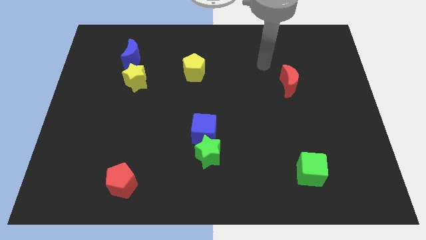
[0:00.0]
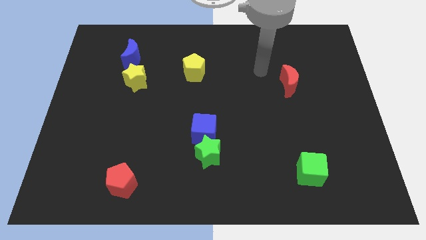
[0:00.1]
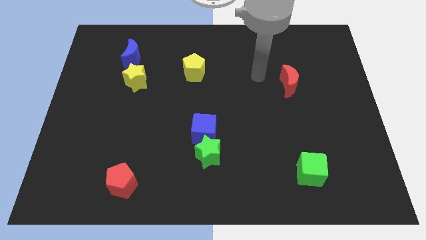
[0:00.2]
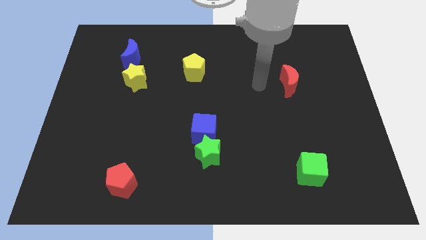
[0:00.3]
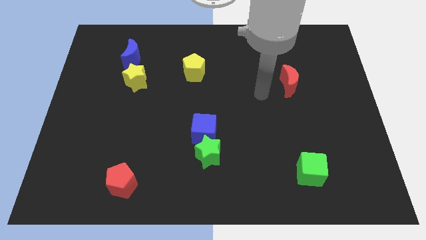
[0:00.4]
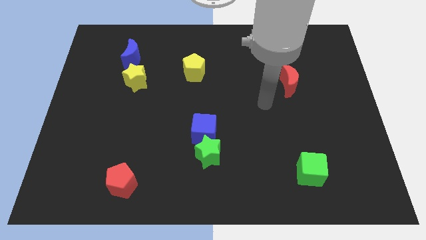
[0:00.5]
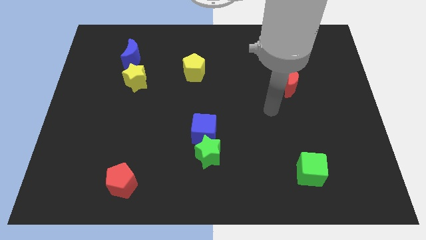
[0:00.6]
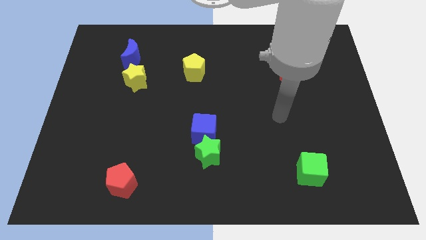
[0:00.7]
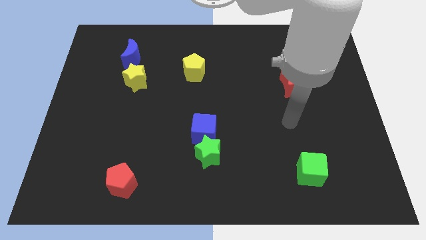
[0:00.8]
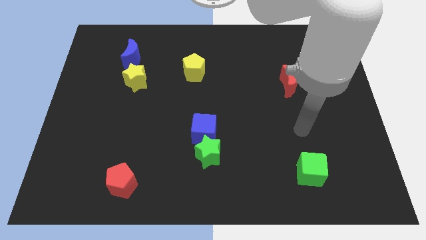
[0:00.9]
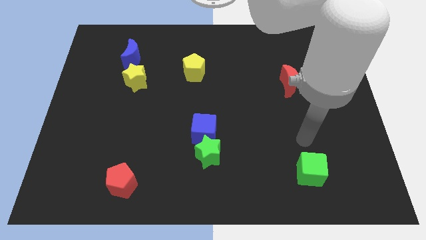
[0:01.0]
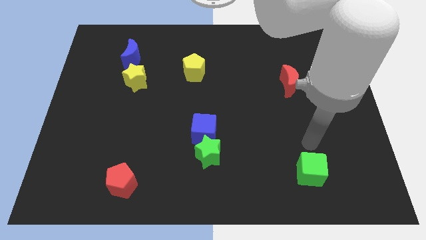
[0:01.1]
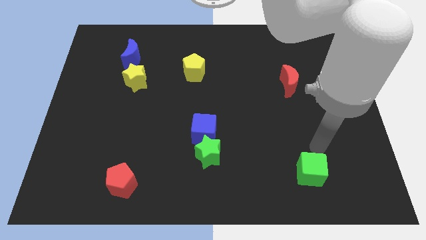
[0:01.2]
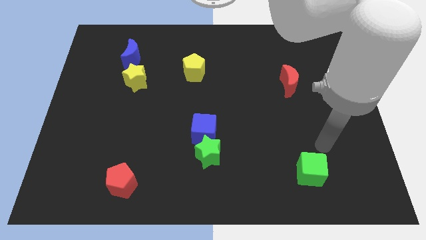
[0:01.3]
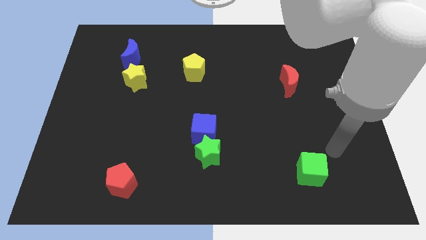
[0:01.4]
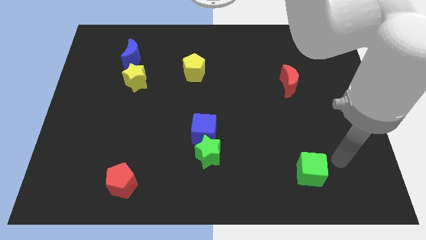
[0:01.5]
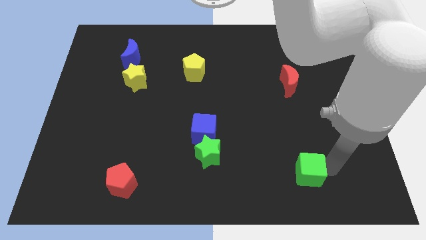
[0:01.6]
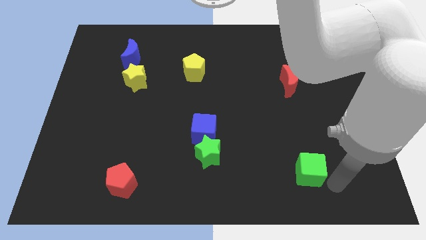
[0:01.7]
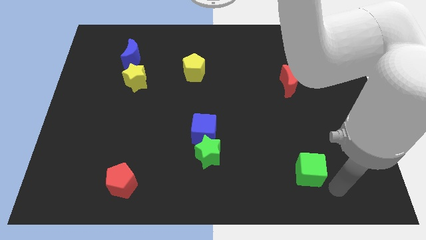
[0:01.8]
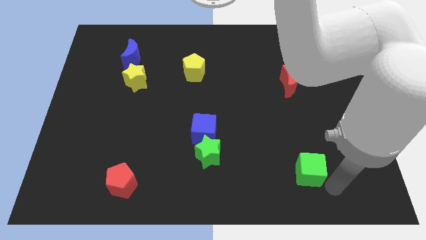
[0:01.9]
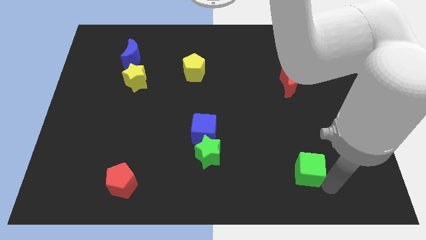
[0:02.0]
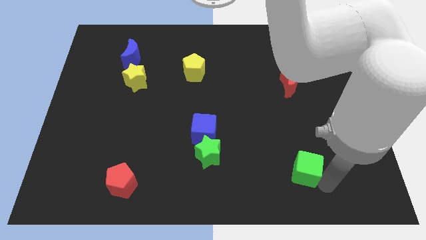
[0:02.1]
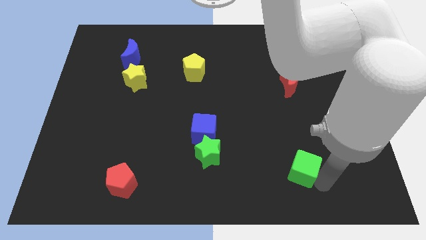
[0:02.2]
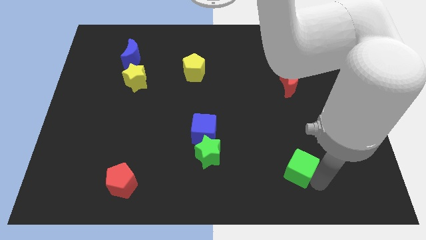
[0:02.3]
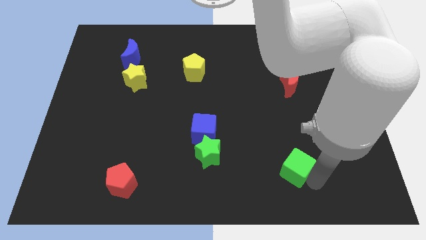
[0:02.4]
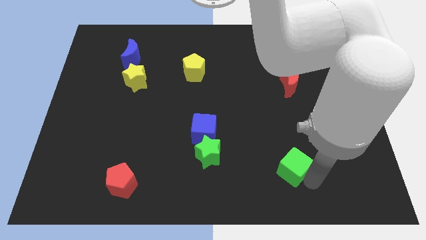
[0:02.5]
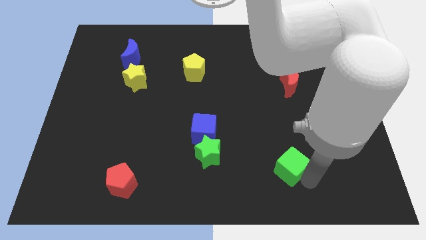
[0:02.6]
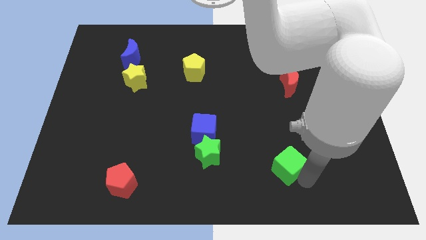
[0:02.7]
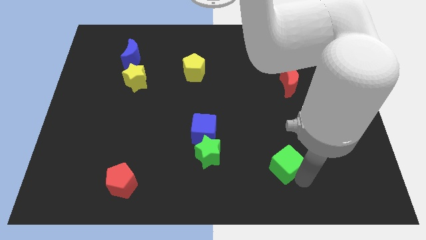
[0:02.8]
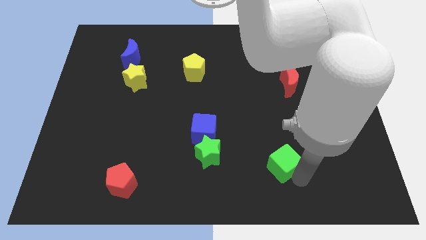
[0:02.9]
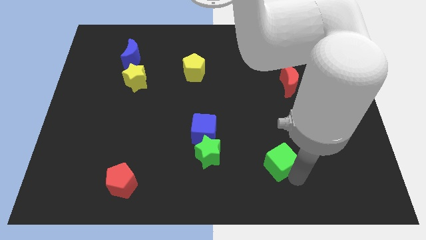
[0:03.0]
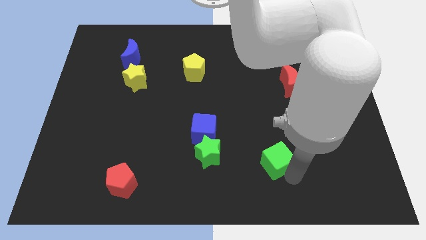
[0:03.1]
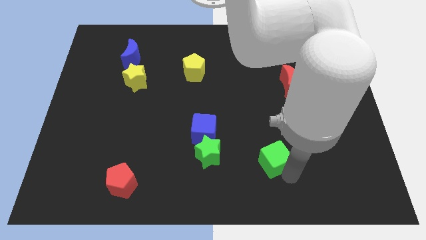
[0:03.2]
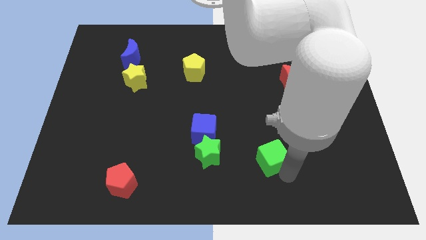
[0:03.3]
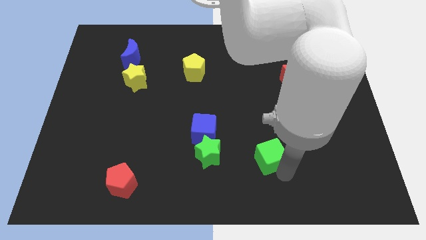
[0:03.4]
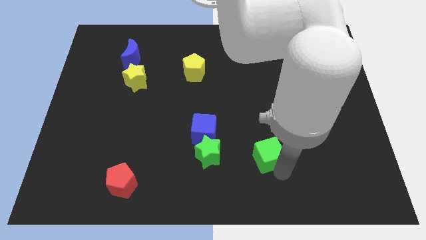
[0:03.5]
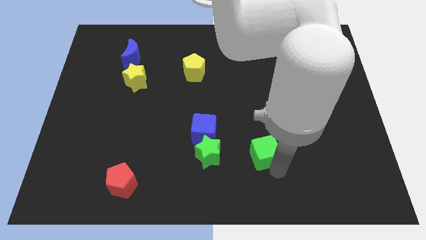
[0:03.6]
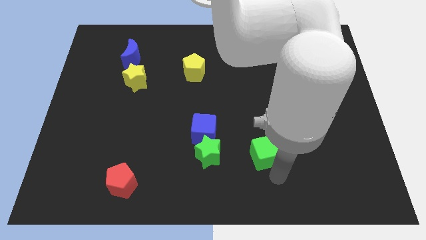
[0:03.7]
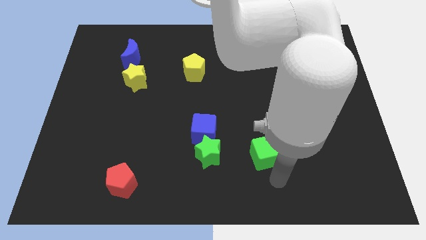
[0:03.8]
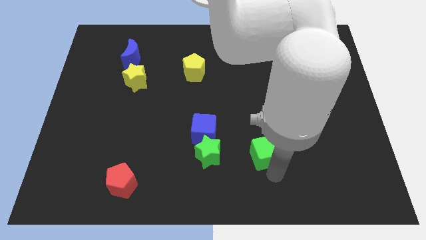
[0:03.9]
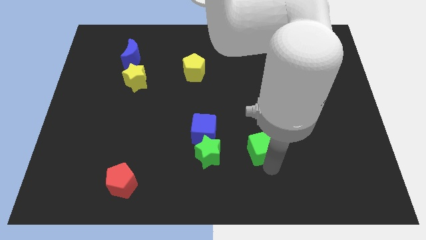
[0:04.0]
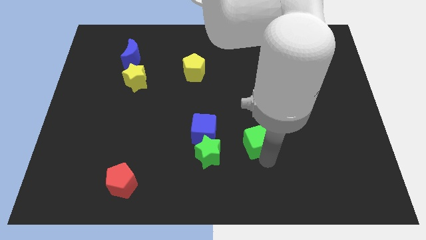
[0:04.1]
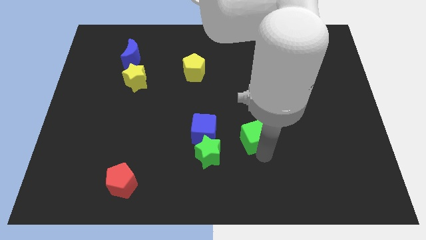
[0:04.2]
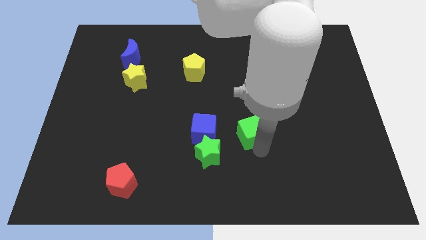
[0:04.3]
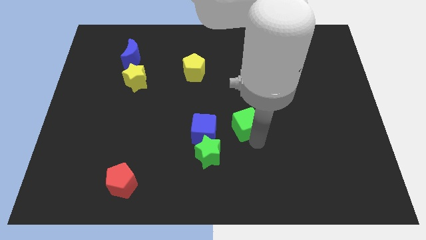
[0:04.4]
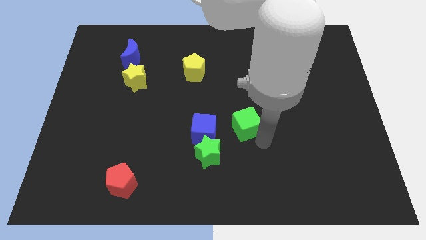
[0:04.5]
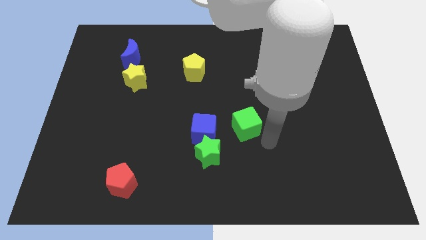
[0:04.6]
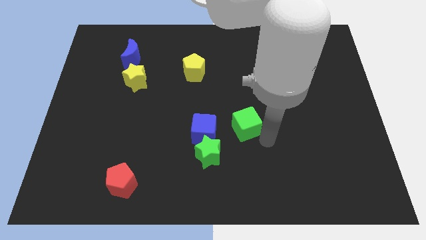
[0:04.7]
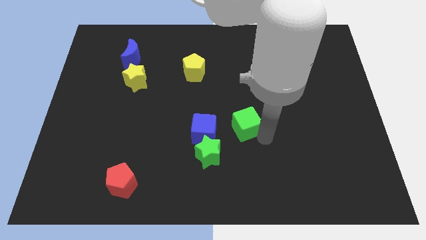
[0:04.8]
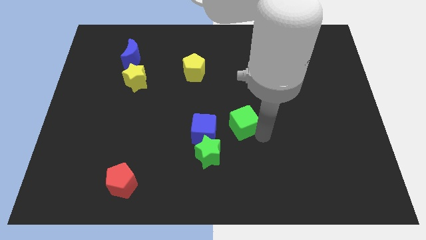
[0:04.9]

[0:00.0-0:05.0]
slide the green cube diagonally up and to the right of the blue cube

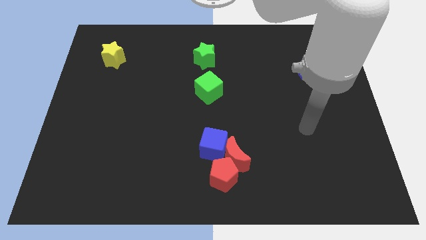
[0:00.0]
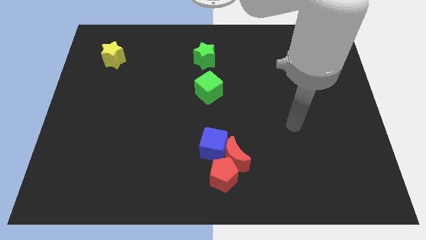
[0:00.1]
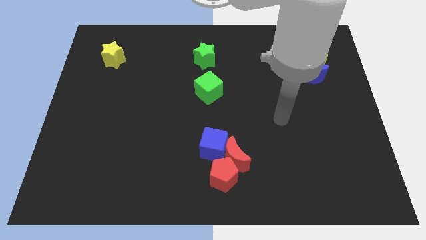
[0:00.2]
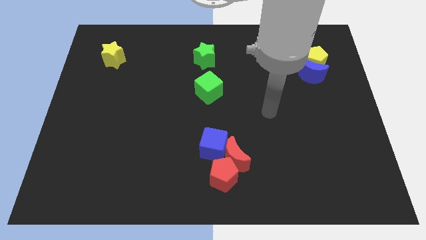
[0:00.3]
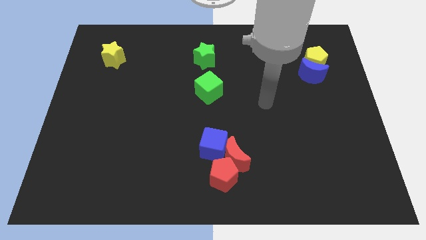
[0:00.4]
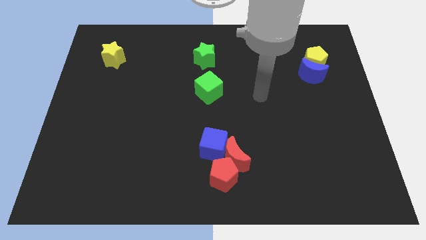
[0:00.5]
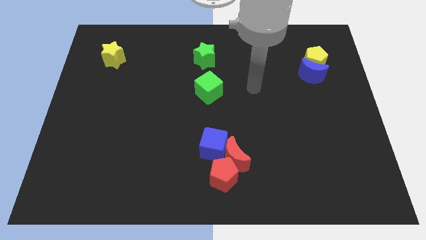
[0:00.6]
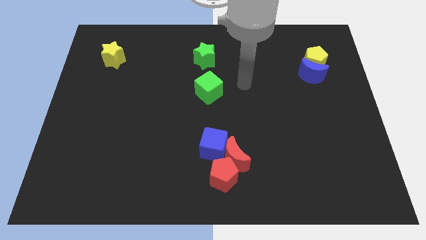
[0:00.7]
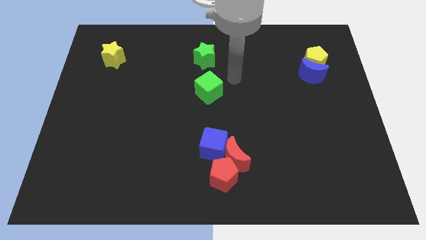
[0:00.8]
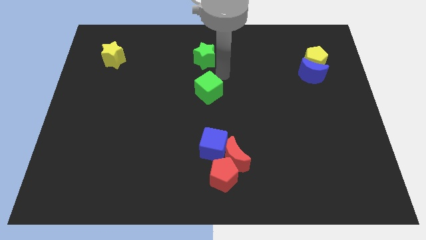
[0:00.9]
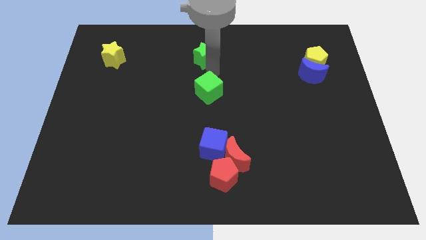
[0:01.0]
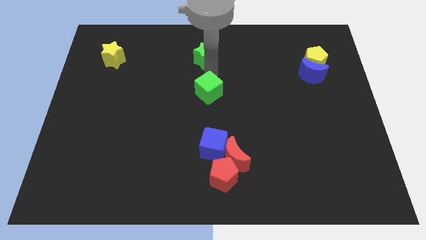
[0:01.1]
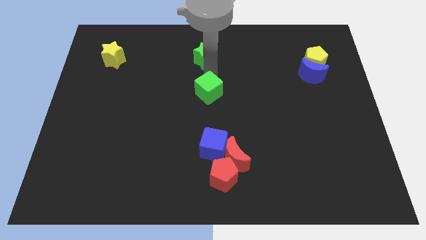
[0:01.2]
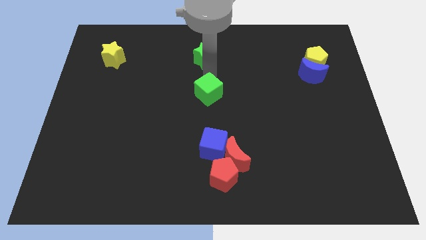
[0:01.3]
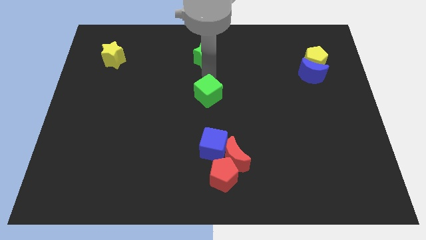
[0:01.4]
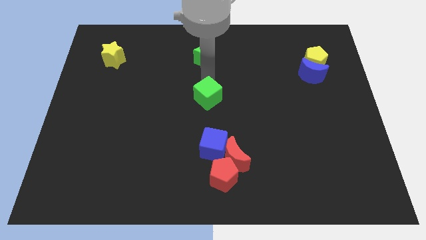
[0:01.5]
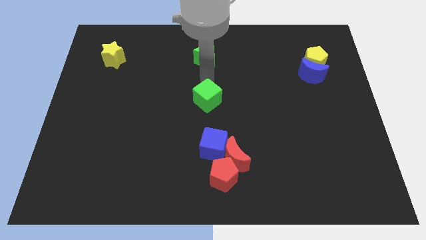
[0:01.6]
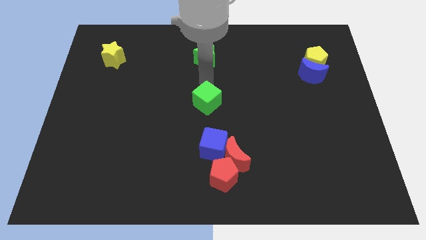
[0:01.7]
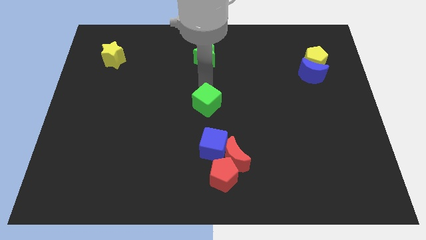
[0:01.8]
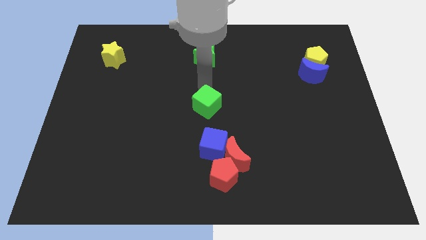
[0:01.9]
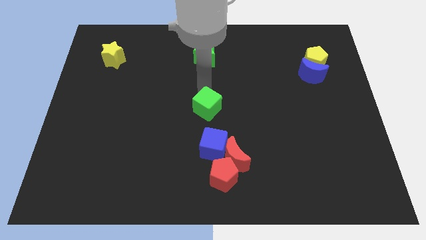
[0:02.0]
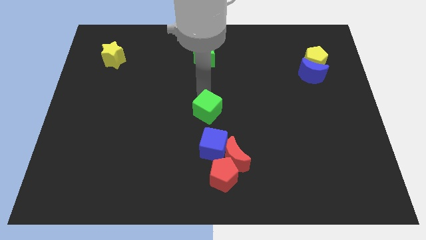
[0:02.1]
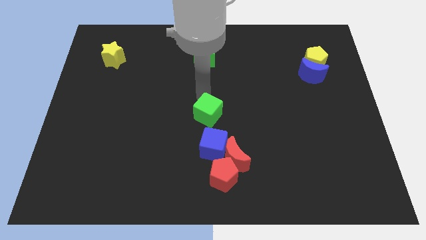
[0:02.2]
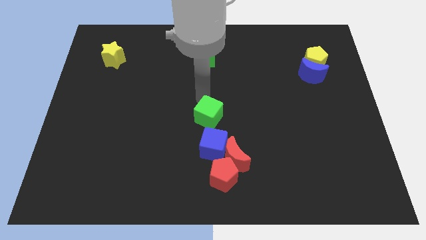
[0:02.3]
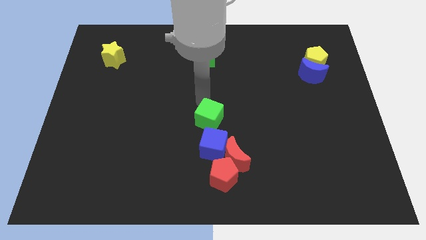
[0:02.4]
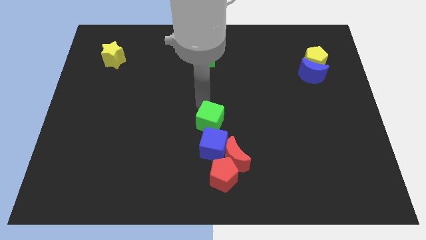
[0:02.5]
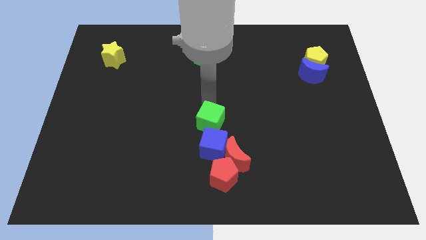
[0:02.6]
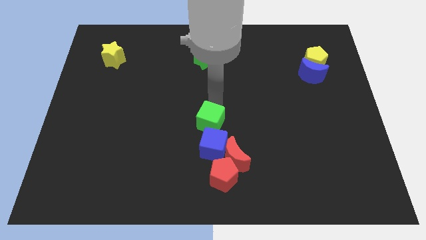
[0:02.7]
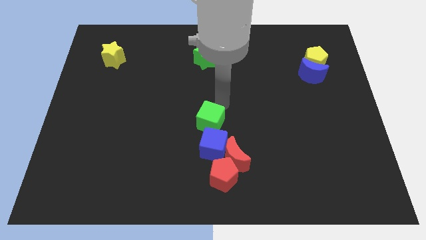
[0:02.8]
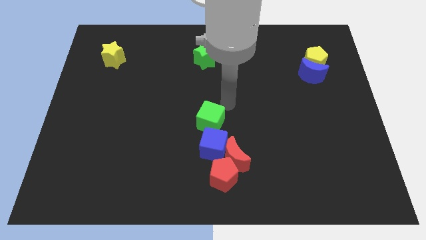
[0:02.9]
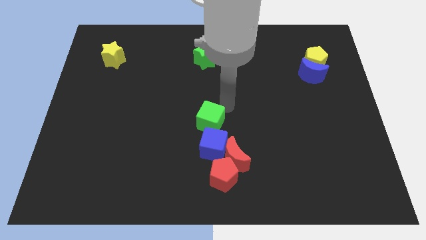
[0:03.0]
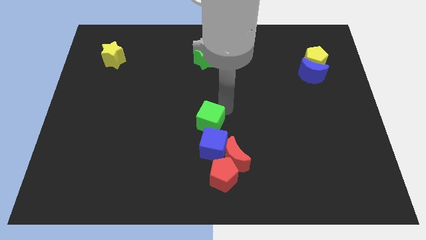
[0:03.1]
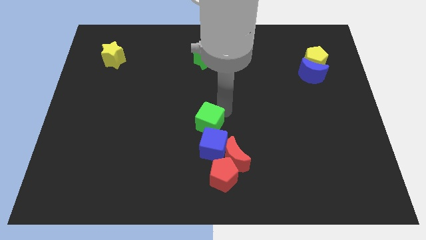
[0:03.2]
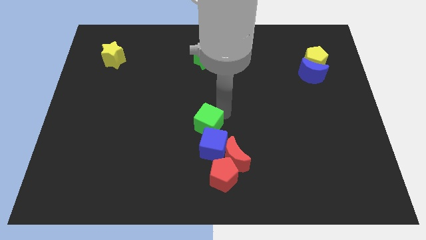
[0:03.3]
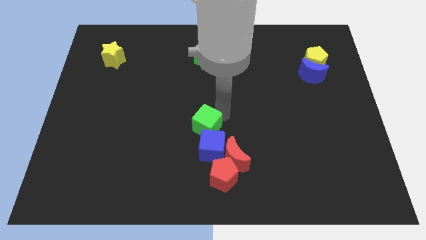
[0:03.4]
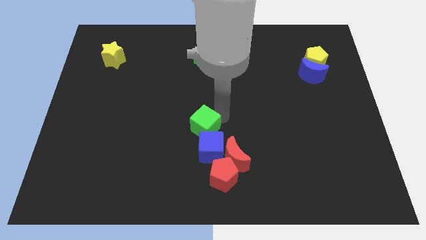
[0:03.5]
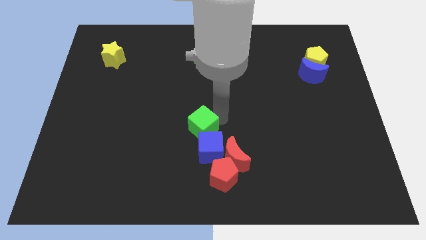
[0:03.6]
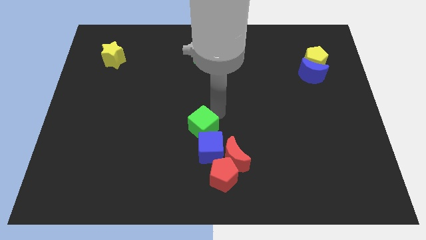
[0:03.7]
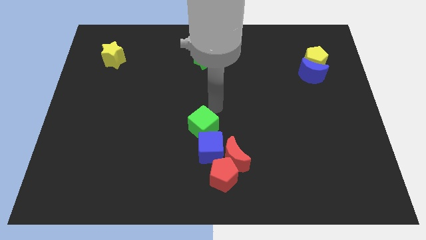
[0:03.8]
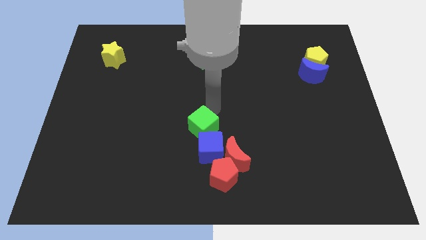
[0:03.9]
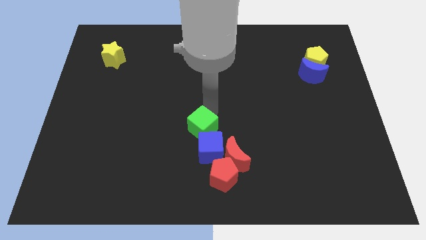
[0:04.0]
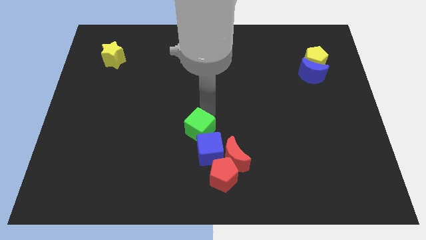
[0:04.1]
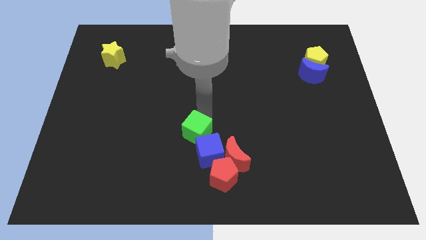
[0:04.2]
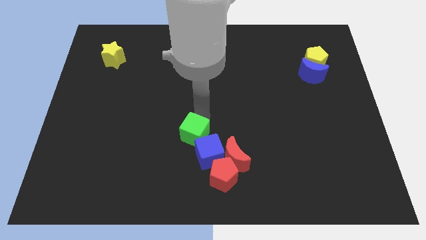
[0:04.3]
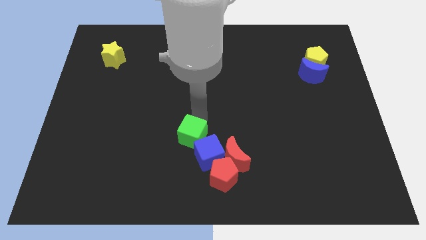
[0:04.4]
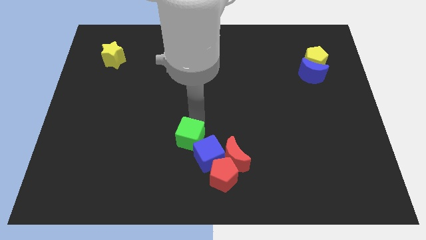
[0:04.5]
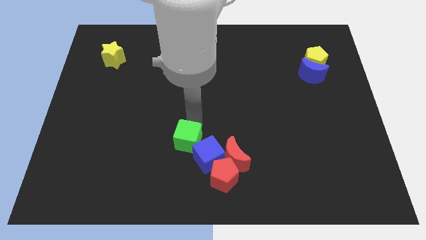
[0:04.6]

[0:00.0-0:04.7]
push the green cube left of the red moon
